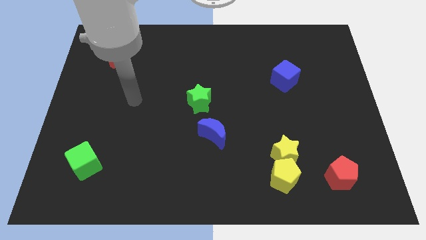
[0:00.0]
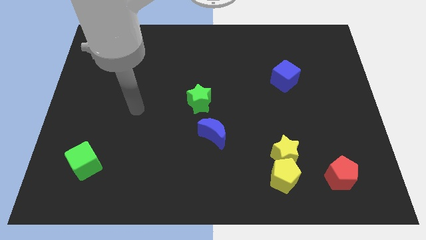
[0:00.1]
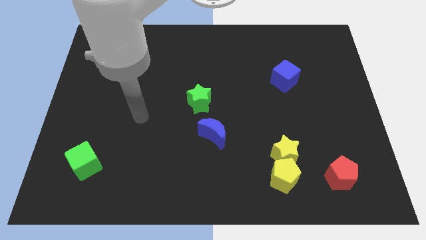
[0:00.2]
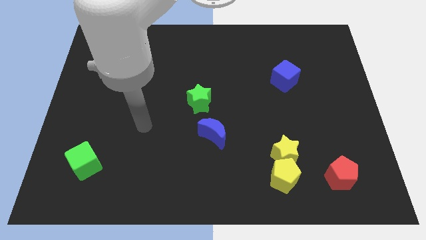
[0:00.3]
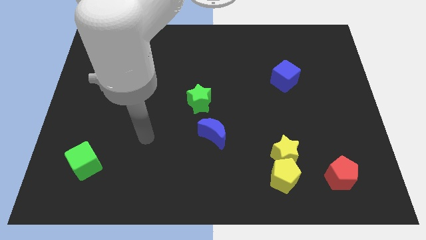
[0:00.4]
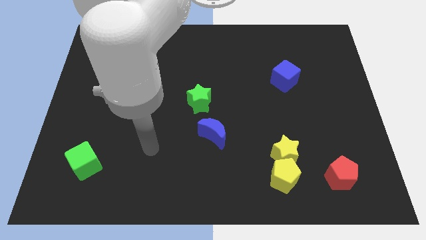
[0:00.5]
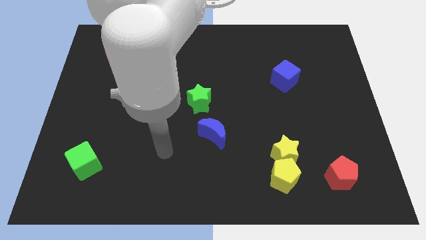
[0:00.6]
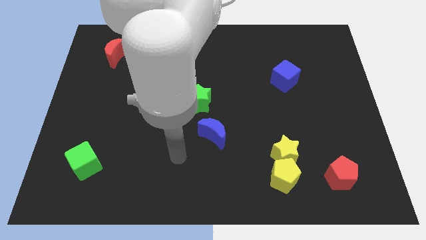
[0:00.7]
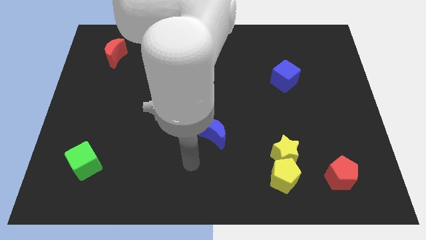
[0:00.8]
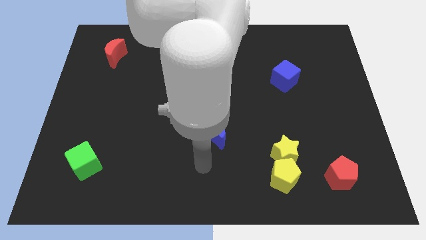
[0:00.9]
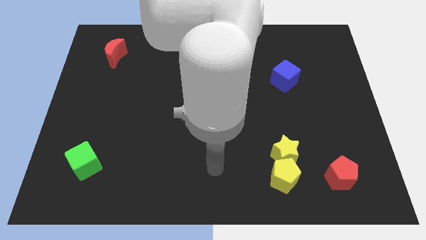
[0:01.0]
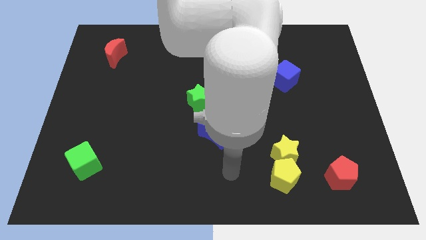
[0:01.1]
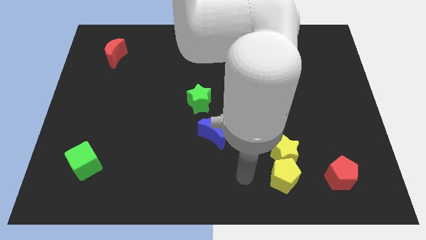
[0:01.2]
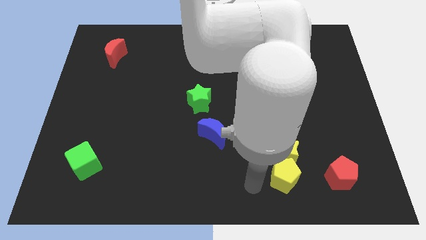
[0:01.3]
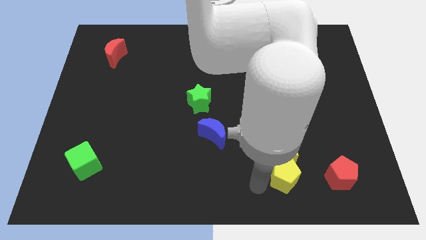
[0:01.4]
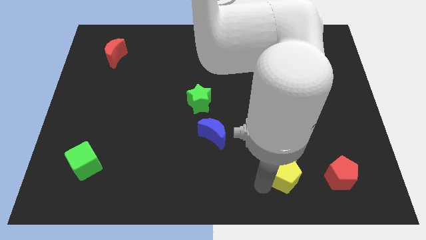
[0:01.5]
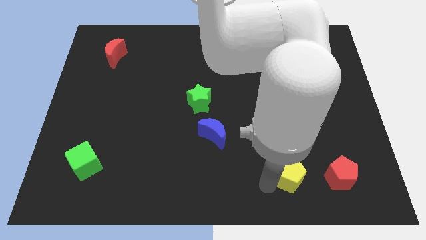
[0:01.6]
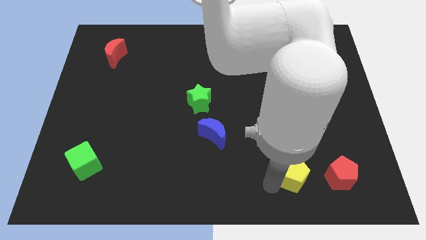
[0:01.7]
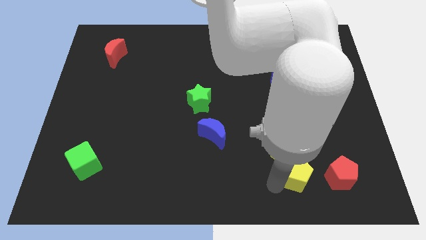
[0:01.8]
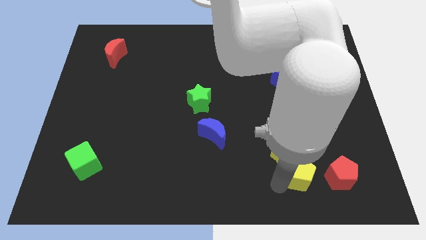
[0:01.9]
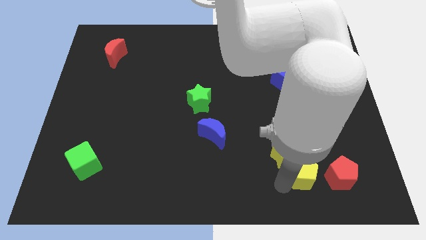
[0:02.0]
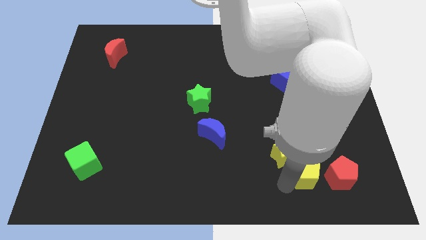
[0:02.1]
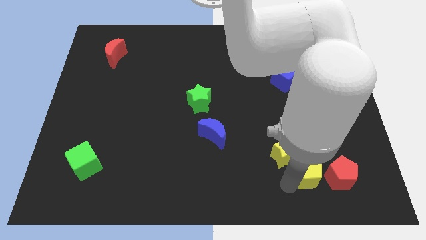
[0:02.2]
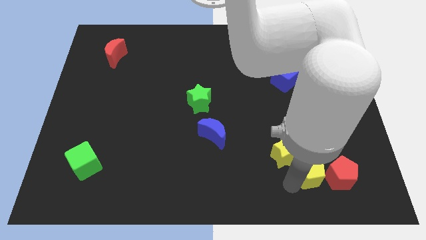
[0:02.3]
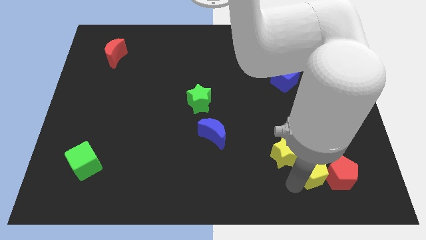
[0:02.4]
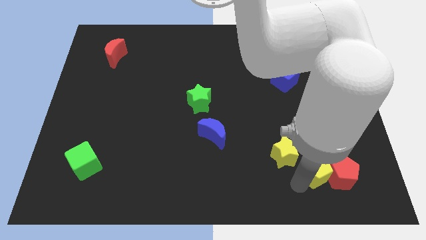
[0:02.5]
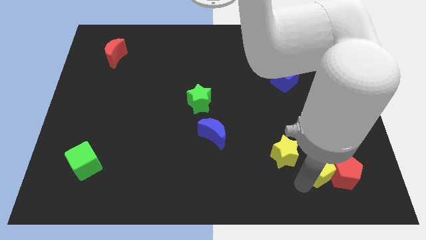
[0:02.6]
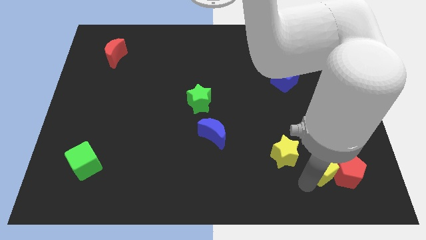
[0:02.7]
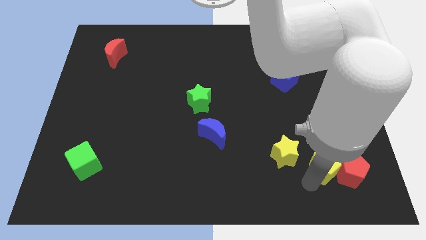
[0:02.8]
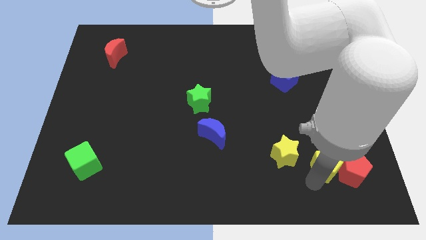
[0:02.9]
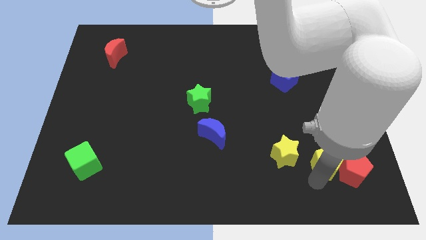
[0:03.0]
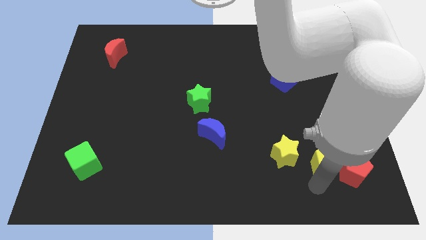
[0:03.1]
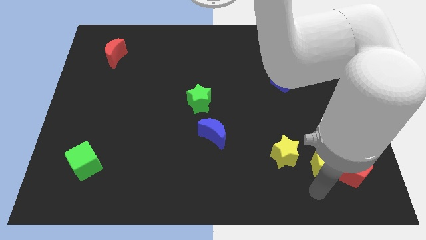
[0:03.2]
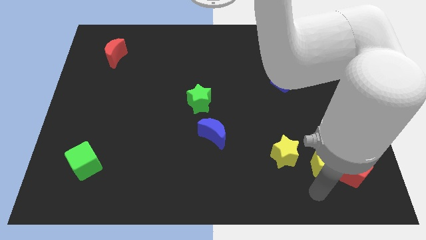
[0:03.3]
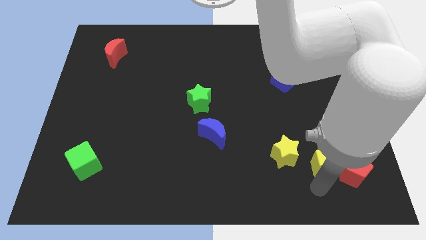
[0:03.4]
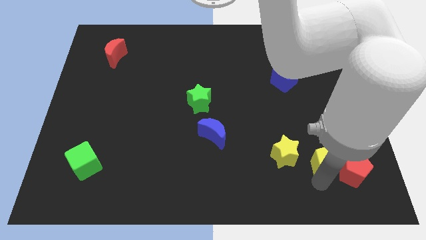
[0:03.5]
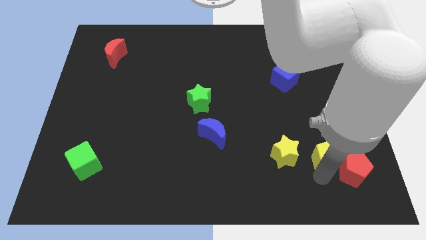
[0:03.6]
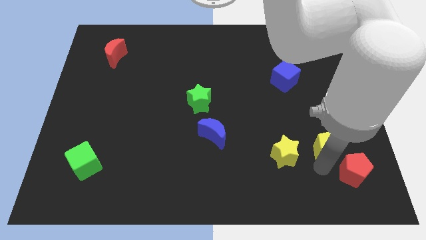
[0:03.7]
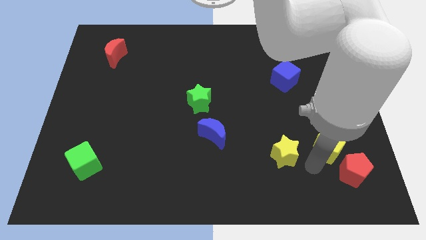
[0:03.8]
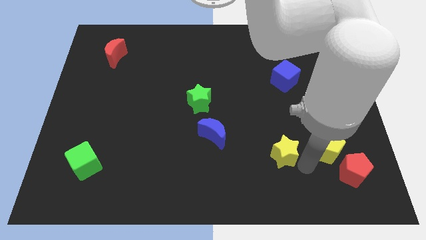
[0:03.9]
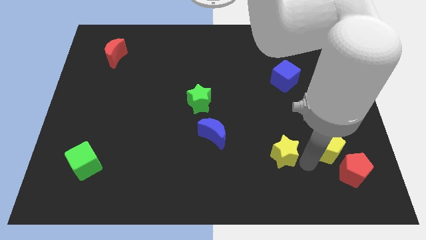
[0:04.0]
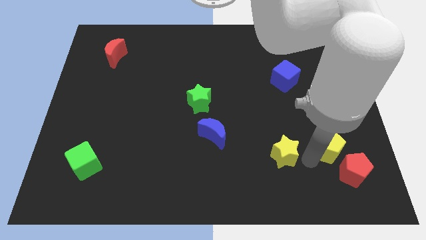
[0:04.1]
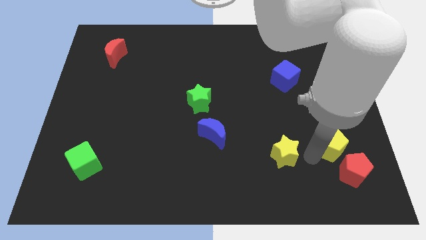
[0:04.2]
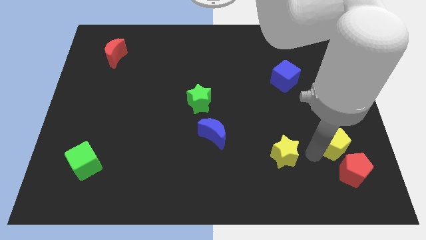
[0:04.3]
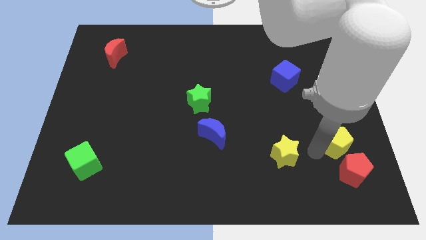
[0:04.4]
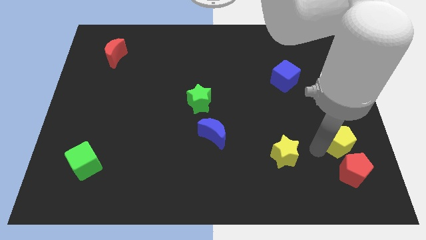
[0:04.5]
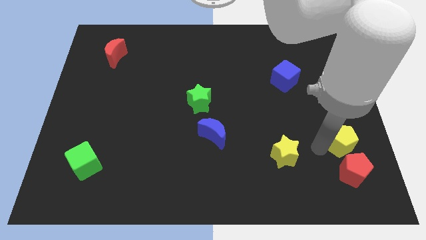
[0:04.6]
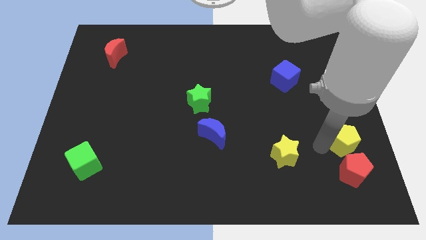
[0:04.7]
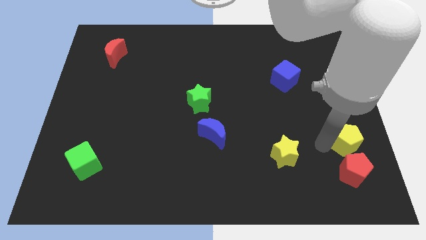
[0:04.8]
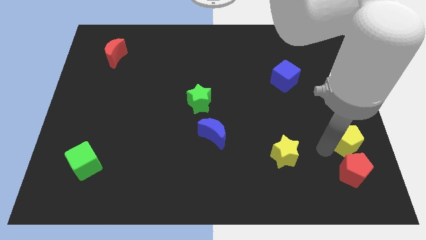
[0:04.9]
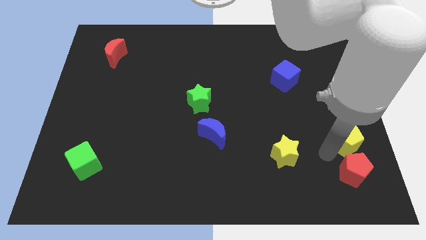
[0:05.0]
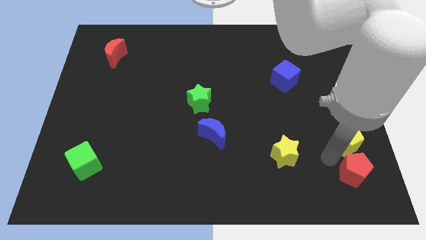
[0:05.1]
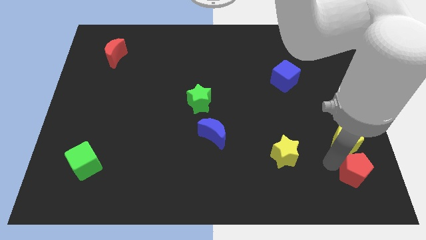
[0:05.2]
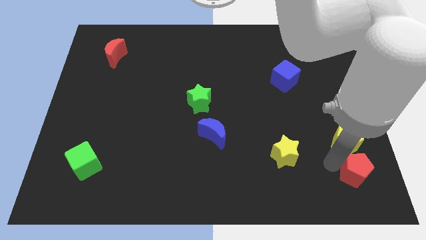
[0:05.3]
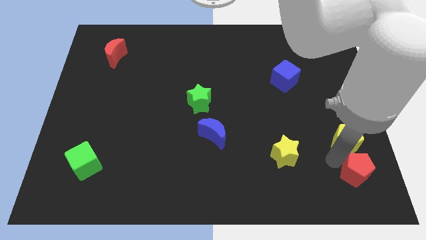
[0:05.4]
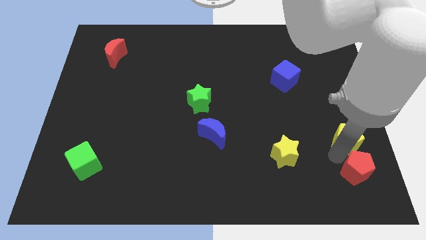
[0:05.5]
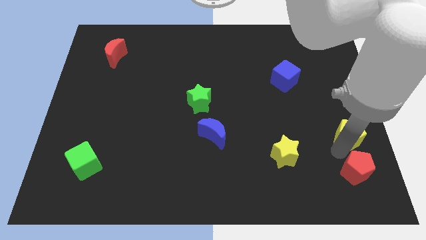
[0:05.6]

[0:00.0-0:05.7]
slide the yellow pentagon to the right side of the board

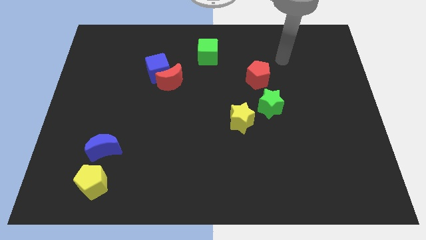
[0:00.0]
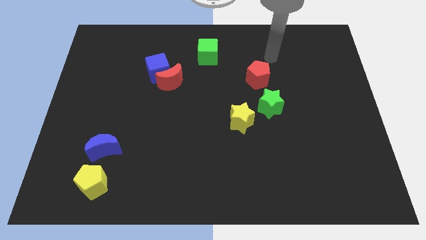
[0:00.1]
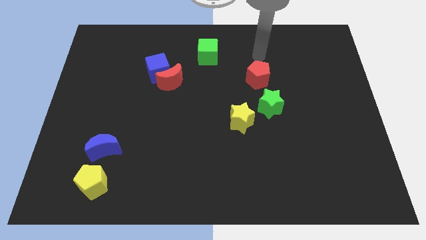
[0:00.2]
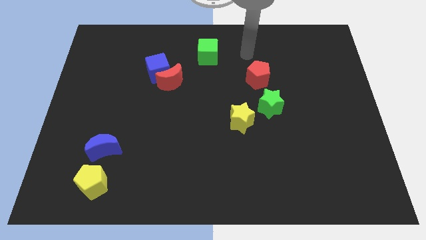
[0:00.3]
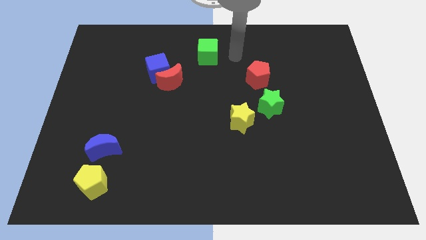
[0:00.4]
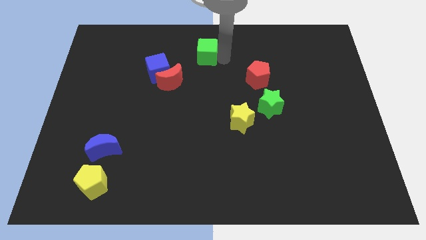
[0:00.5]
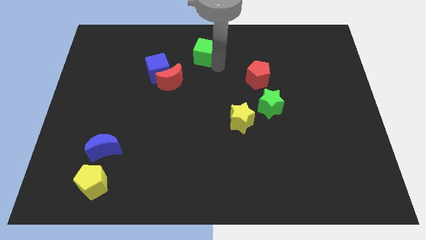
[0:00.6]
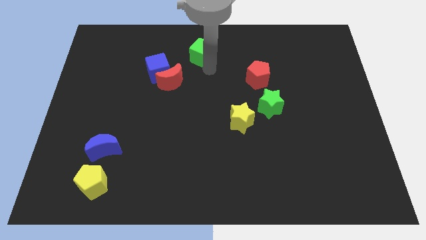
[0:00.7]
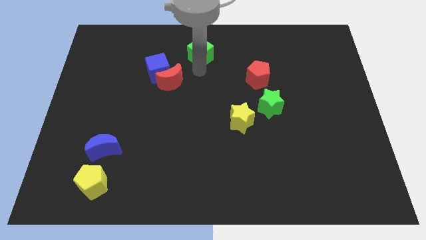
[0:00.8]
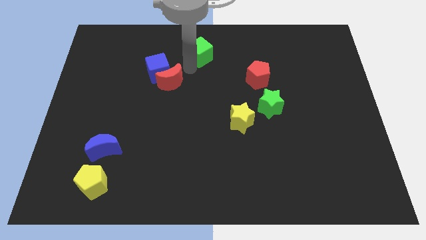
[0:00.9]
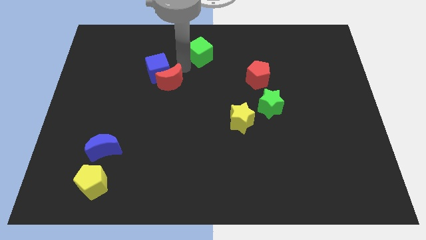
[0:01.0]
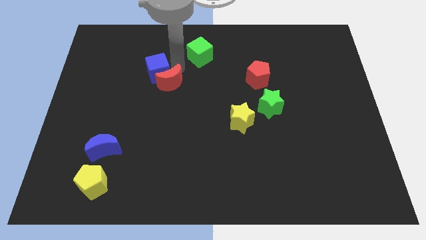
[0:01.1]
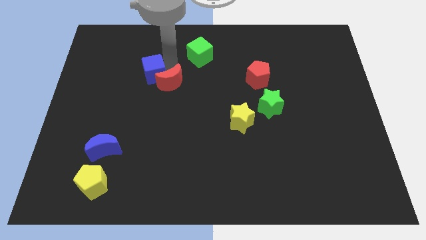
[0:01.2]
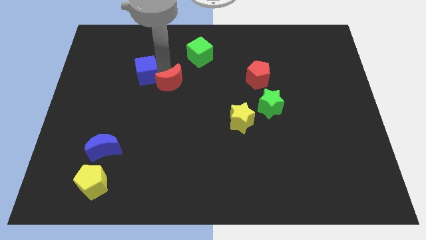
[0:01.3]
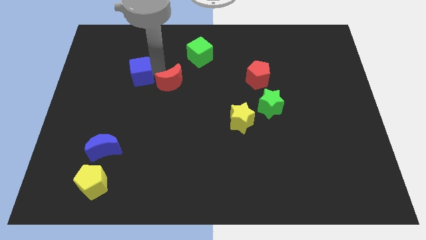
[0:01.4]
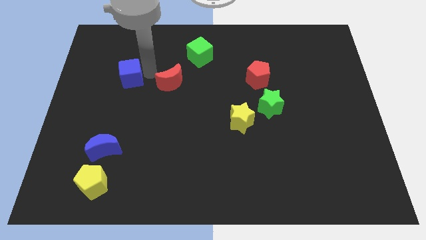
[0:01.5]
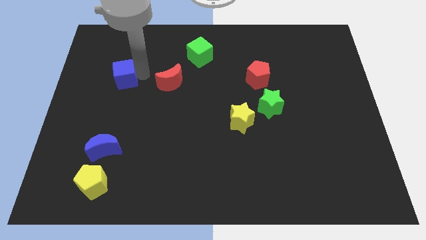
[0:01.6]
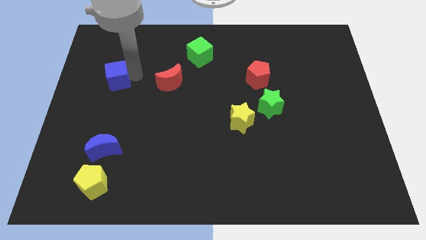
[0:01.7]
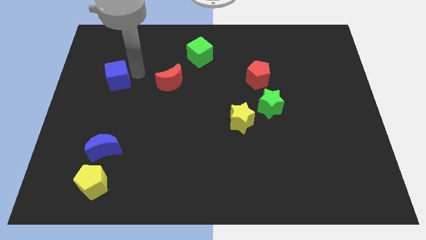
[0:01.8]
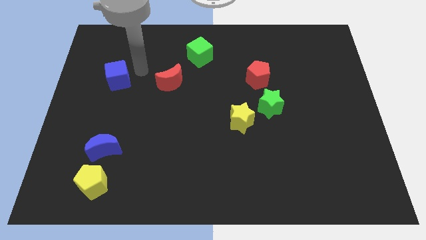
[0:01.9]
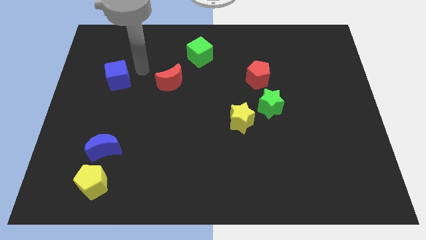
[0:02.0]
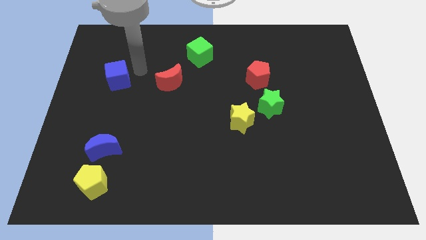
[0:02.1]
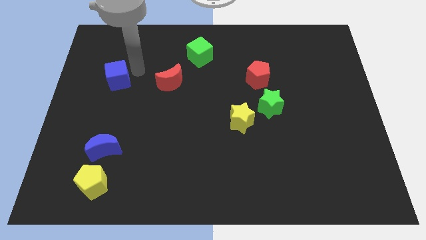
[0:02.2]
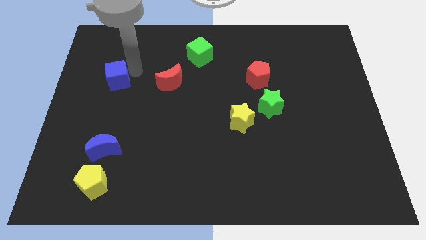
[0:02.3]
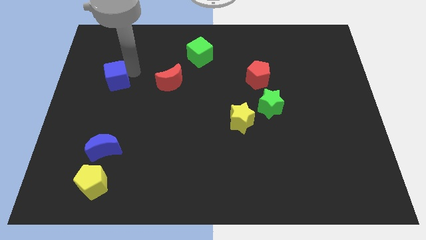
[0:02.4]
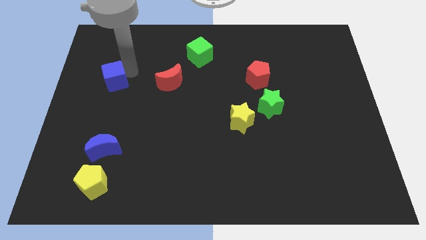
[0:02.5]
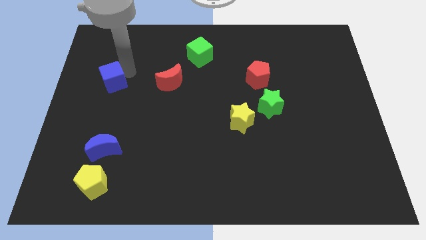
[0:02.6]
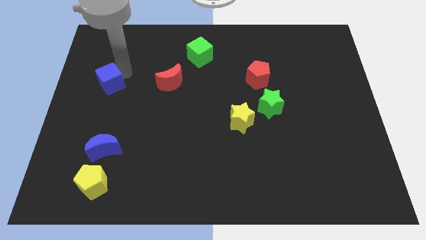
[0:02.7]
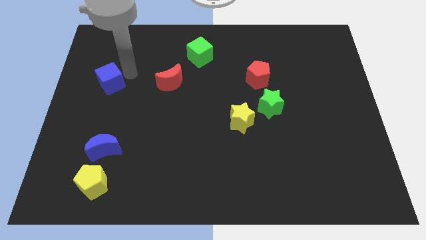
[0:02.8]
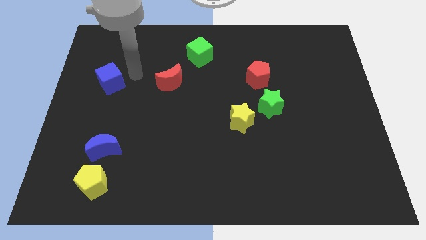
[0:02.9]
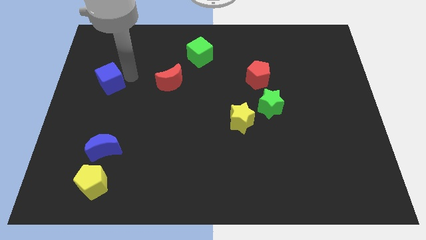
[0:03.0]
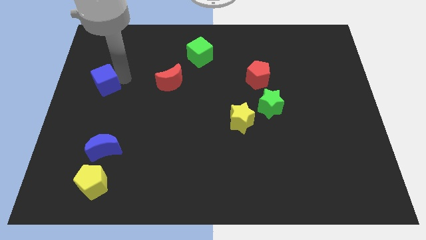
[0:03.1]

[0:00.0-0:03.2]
move the blue cube to the left side
